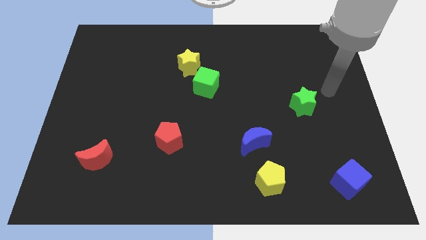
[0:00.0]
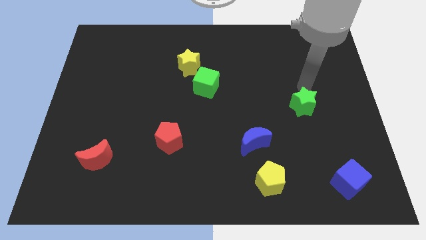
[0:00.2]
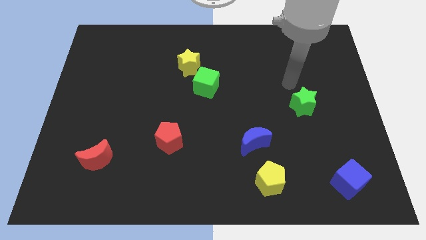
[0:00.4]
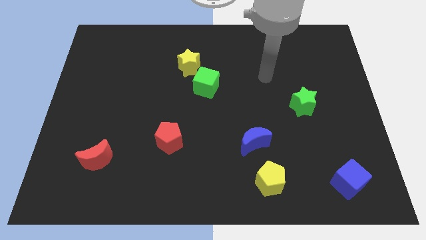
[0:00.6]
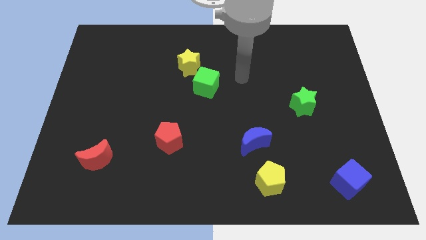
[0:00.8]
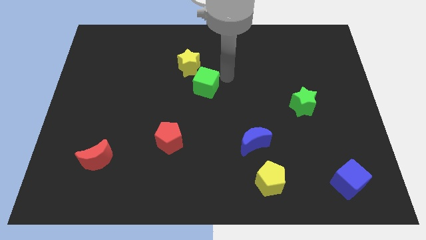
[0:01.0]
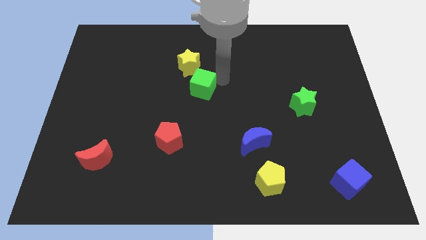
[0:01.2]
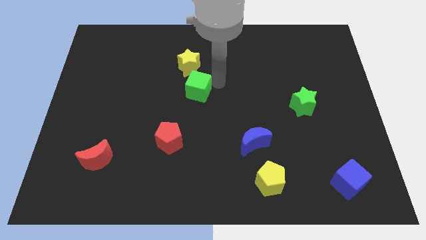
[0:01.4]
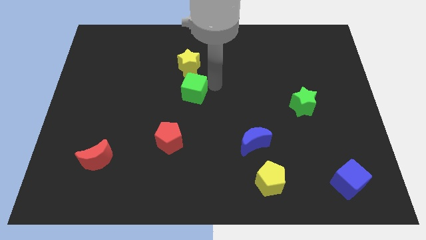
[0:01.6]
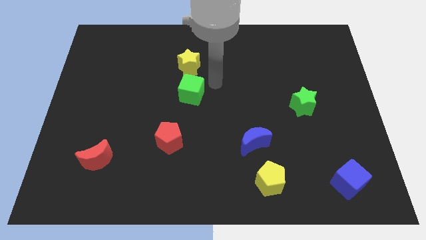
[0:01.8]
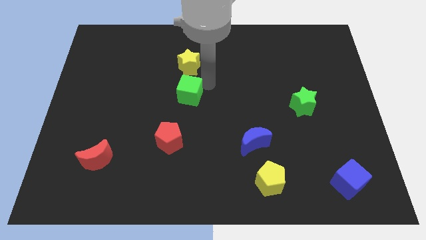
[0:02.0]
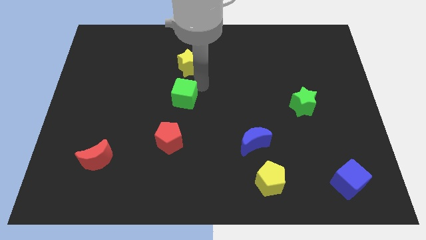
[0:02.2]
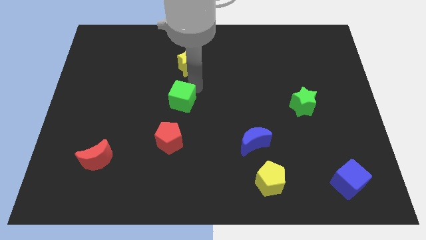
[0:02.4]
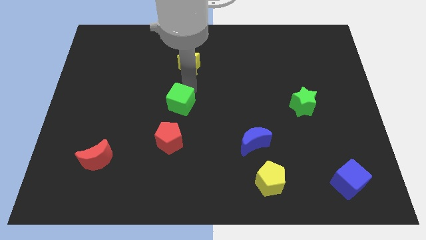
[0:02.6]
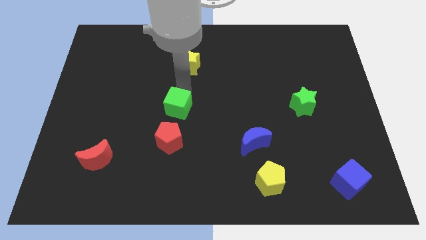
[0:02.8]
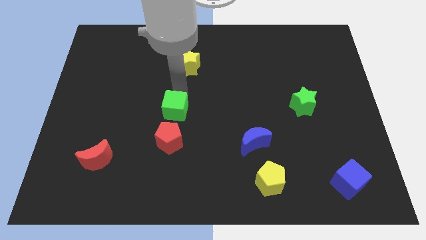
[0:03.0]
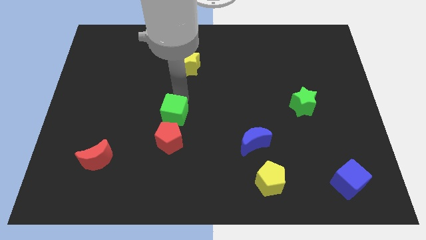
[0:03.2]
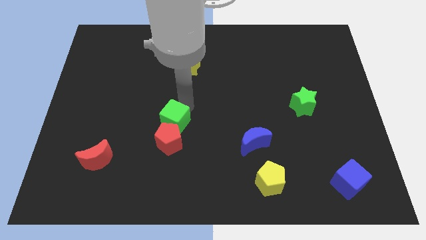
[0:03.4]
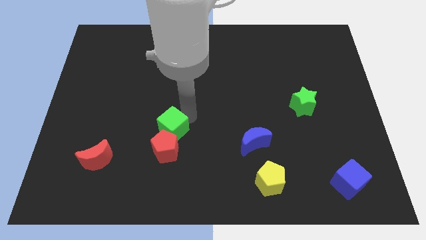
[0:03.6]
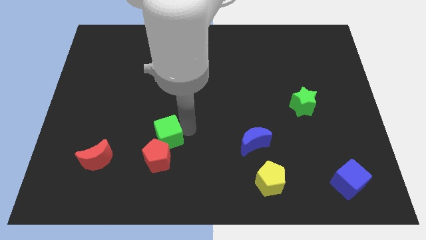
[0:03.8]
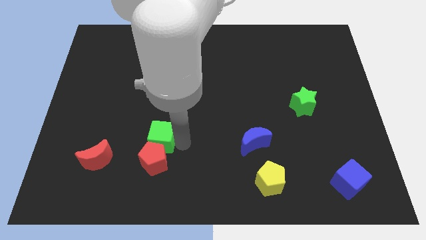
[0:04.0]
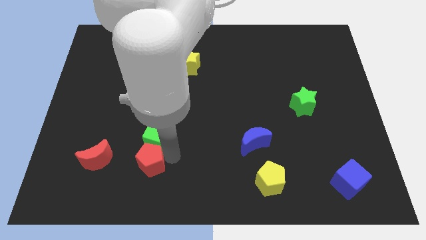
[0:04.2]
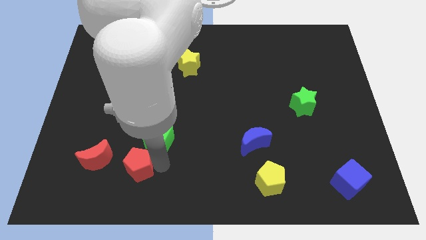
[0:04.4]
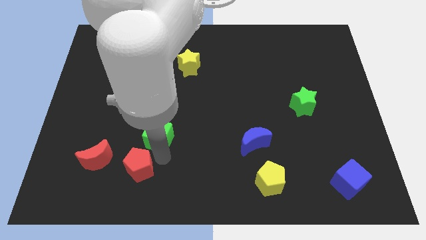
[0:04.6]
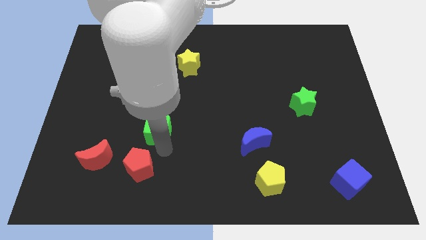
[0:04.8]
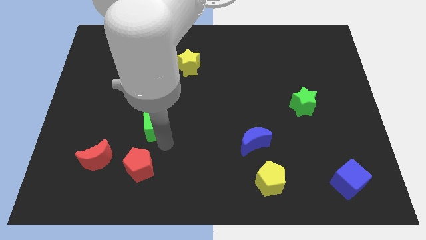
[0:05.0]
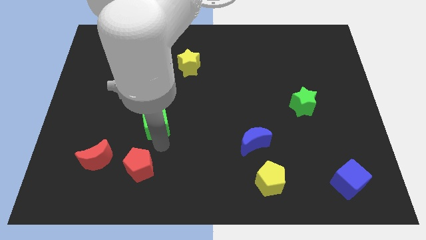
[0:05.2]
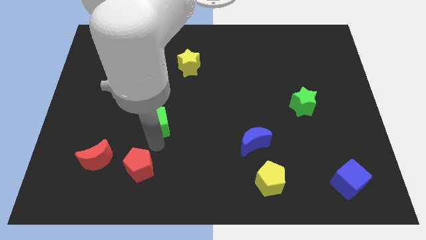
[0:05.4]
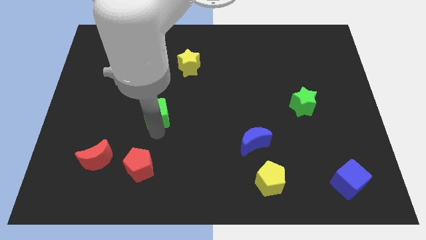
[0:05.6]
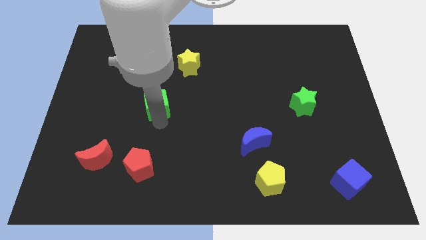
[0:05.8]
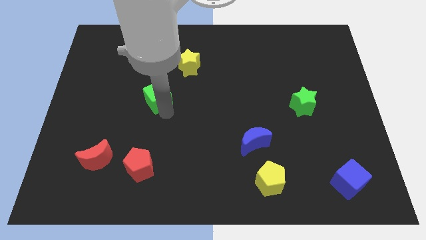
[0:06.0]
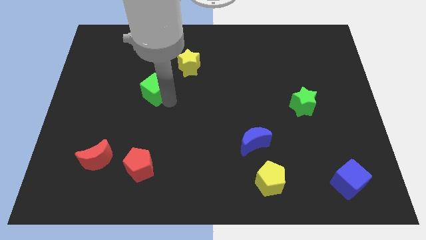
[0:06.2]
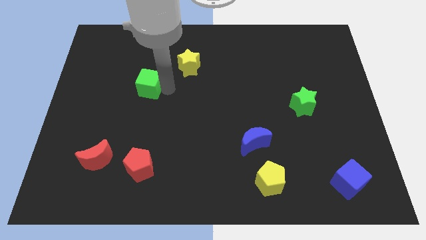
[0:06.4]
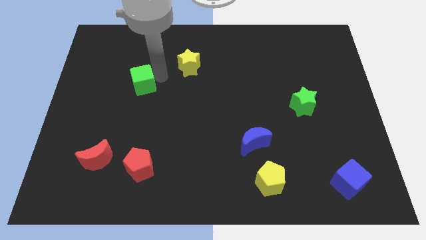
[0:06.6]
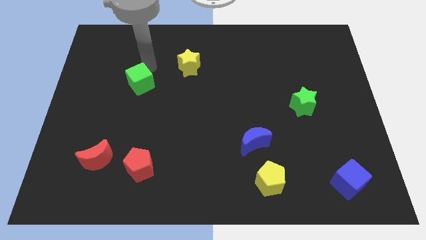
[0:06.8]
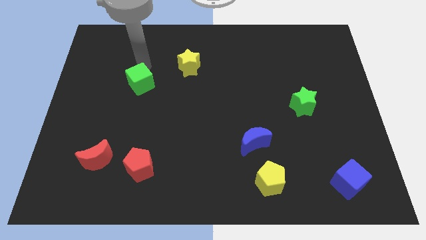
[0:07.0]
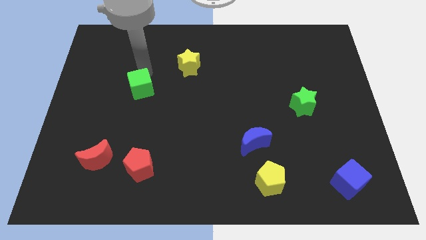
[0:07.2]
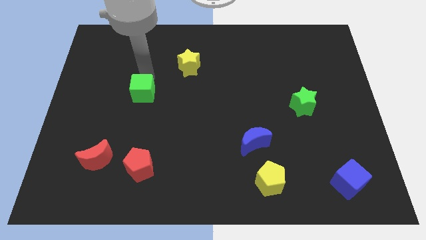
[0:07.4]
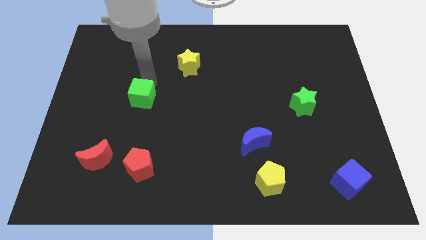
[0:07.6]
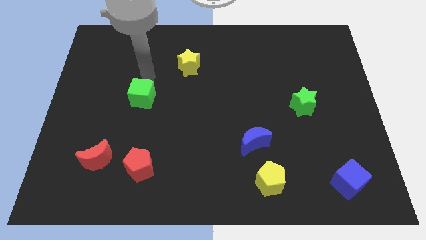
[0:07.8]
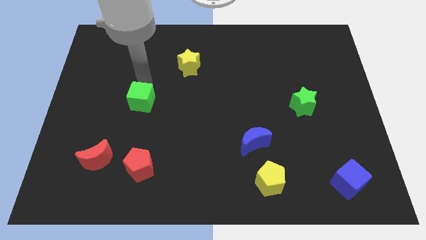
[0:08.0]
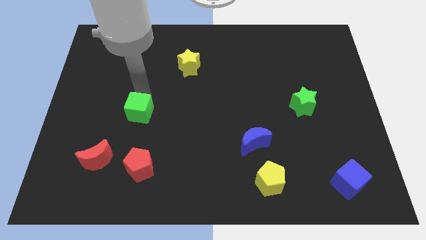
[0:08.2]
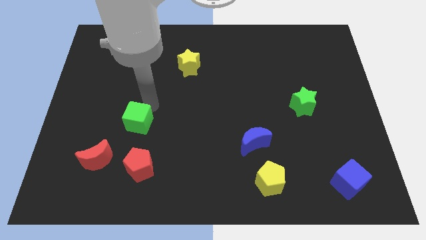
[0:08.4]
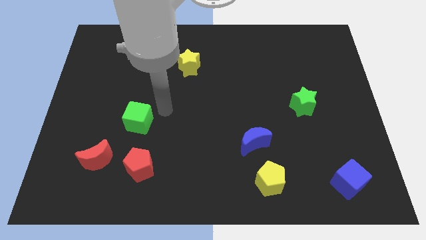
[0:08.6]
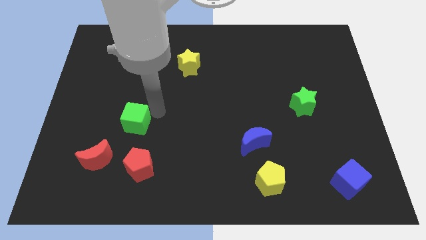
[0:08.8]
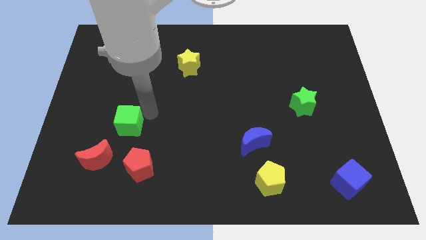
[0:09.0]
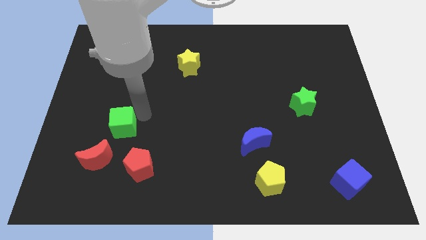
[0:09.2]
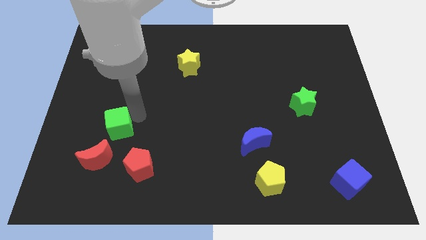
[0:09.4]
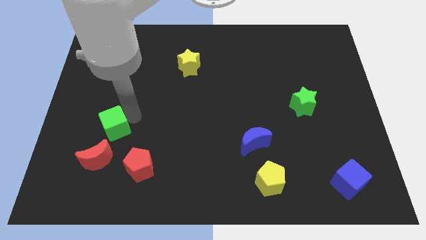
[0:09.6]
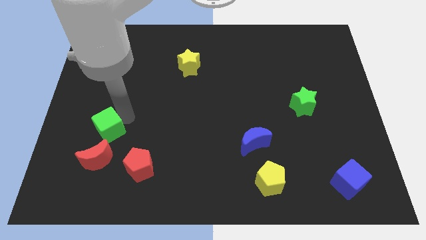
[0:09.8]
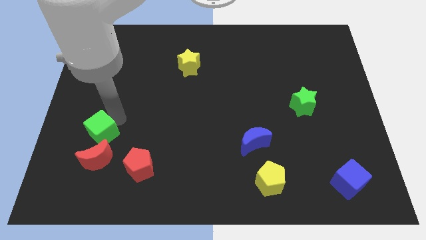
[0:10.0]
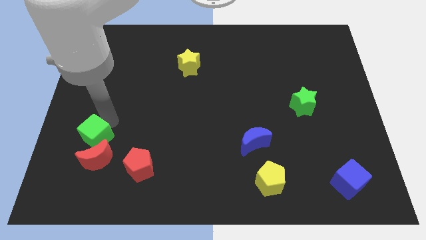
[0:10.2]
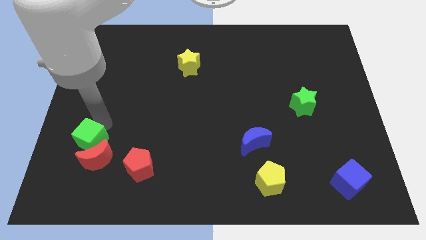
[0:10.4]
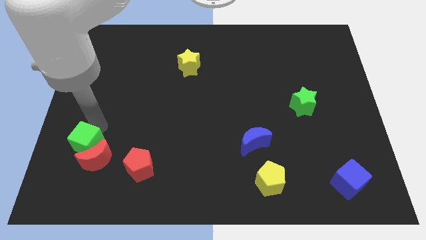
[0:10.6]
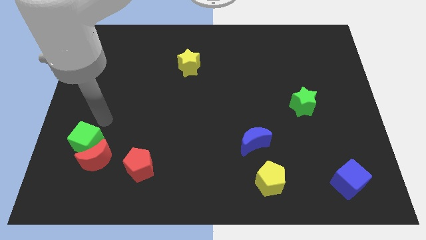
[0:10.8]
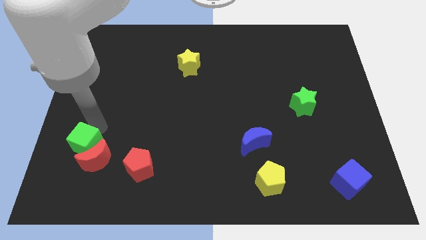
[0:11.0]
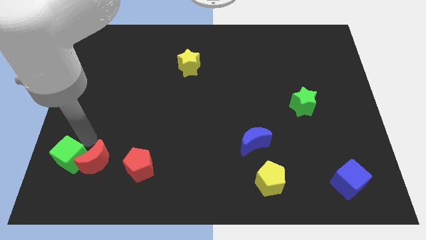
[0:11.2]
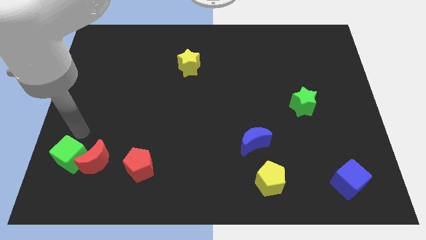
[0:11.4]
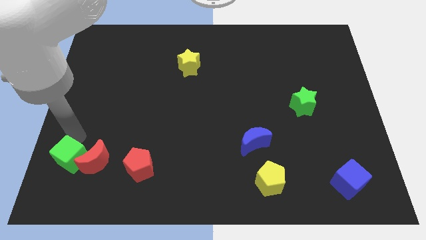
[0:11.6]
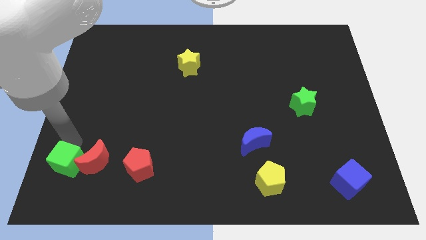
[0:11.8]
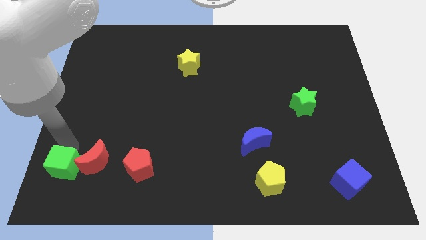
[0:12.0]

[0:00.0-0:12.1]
put the green cube to the bottom left
